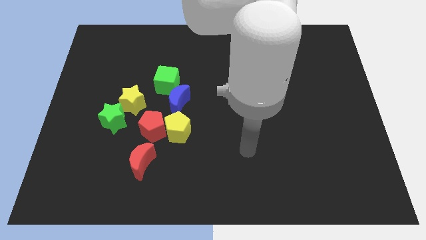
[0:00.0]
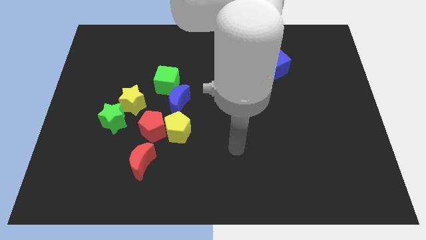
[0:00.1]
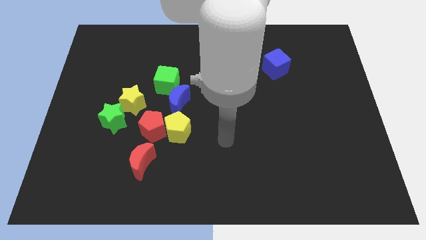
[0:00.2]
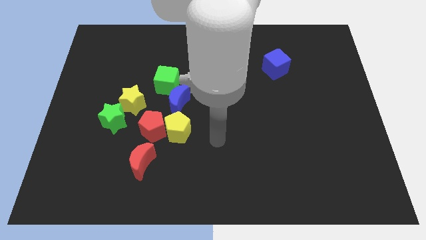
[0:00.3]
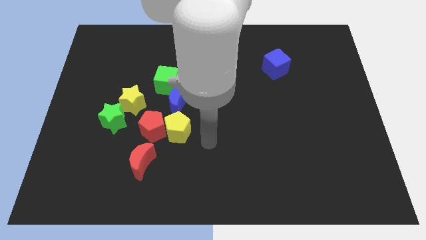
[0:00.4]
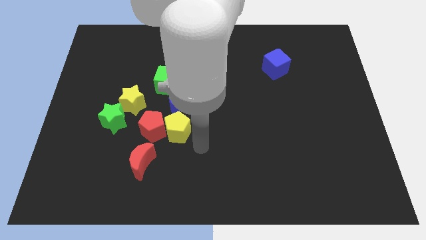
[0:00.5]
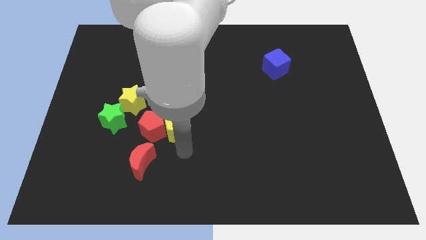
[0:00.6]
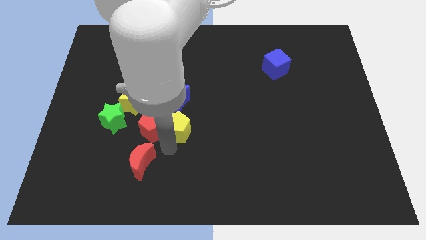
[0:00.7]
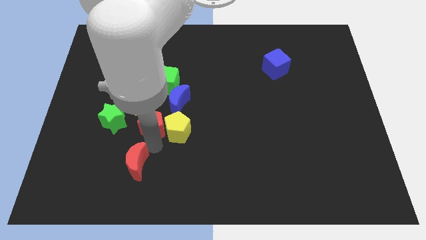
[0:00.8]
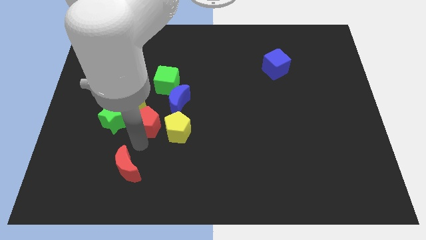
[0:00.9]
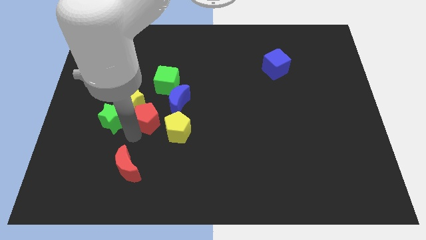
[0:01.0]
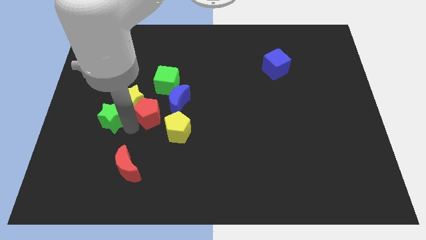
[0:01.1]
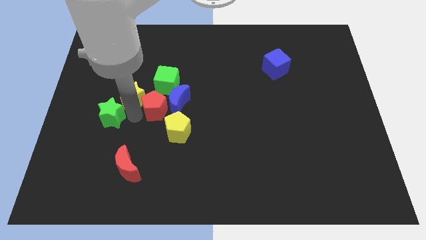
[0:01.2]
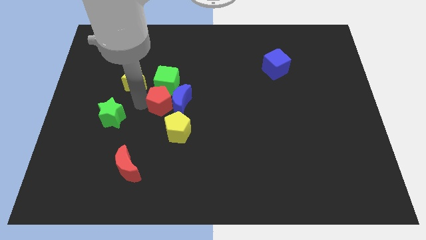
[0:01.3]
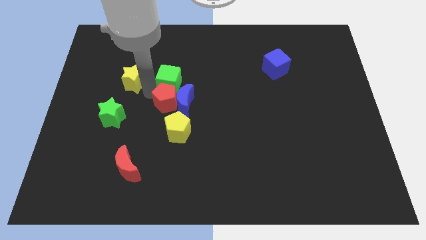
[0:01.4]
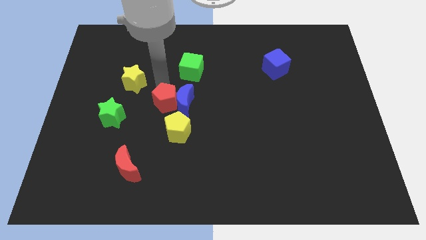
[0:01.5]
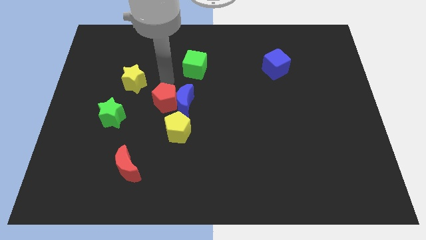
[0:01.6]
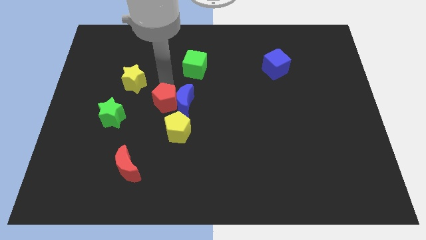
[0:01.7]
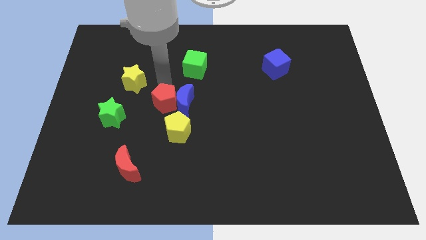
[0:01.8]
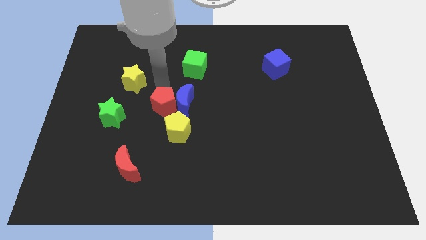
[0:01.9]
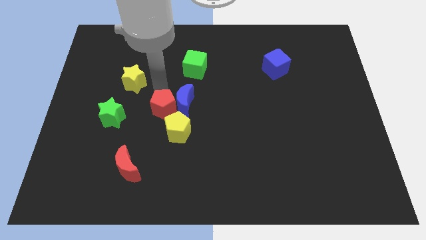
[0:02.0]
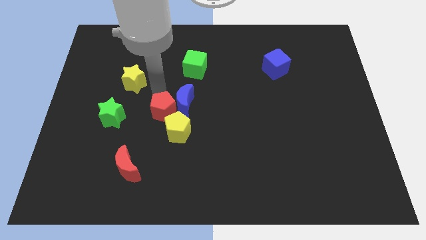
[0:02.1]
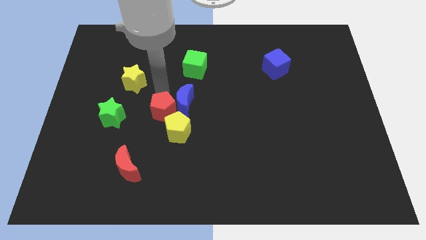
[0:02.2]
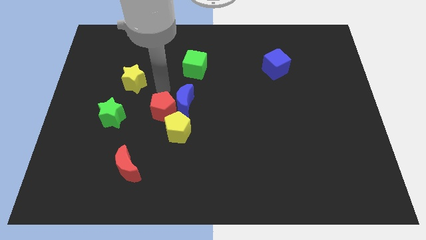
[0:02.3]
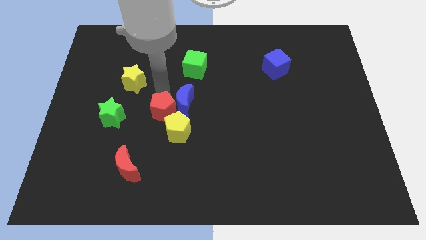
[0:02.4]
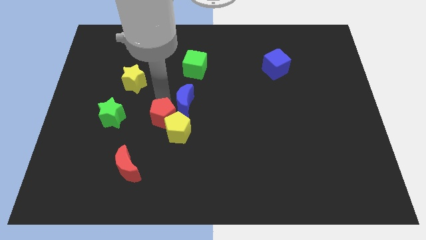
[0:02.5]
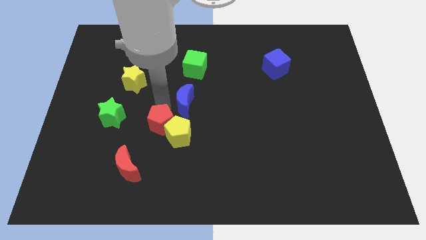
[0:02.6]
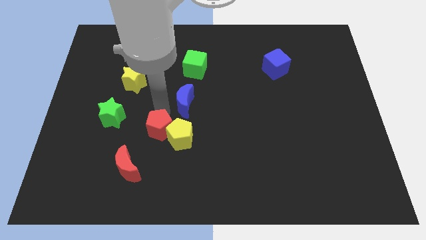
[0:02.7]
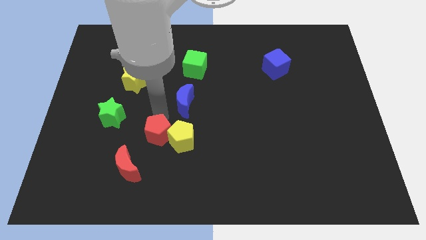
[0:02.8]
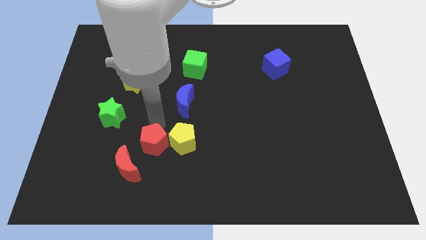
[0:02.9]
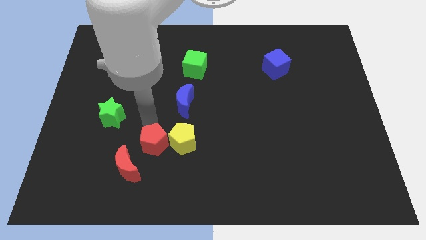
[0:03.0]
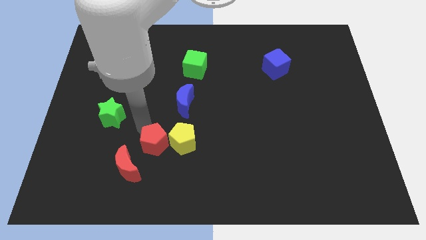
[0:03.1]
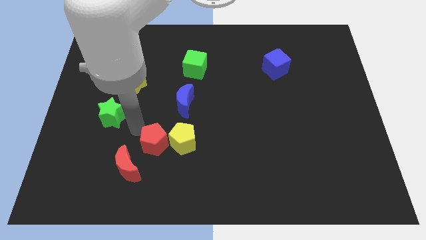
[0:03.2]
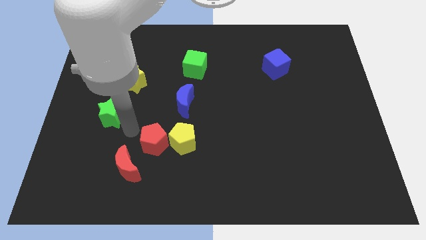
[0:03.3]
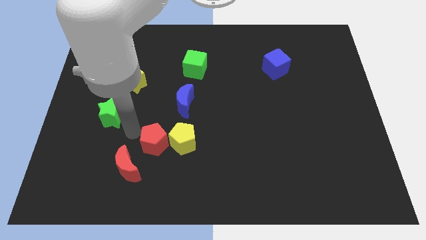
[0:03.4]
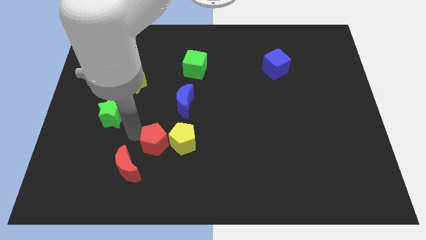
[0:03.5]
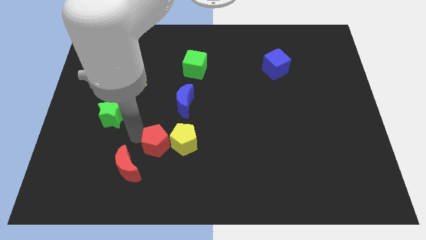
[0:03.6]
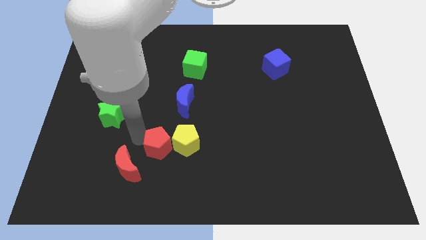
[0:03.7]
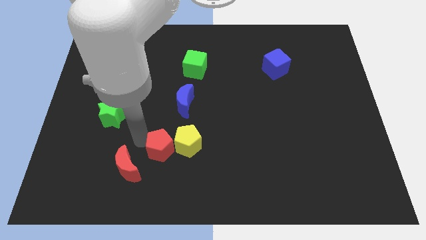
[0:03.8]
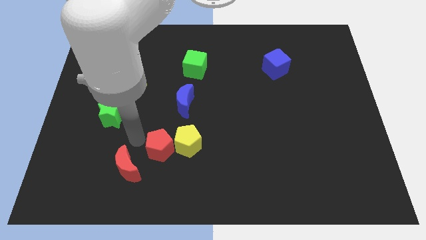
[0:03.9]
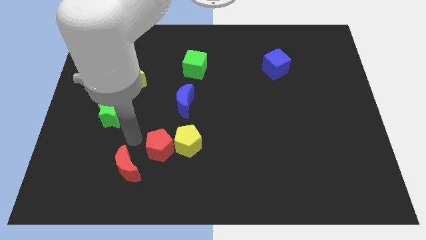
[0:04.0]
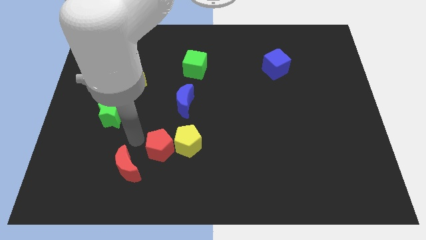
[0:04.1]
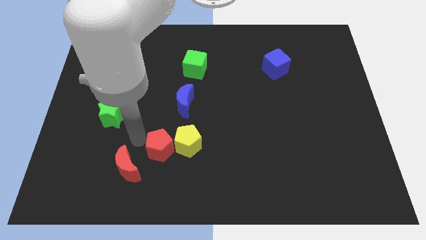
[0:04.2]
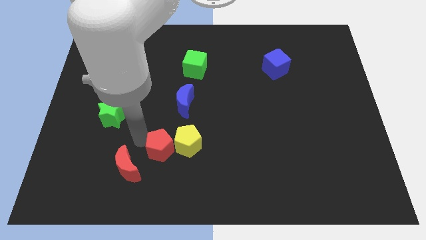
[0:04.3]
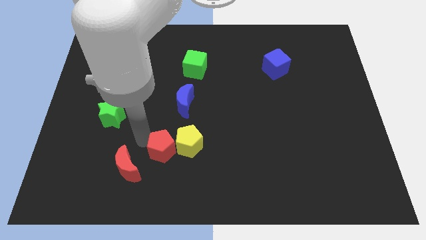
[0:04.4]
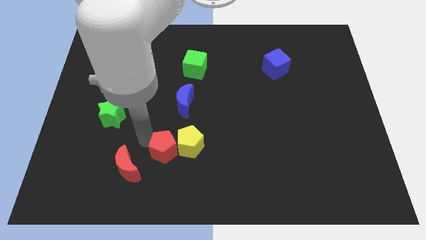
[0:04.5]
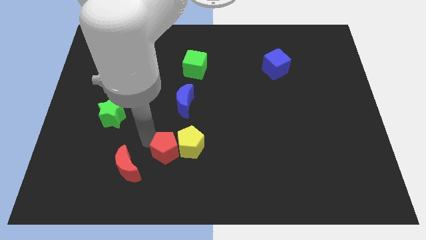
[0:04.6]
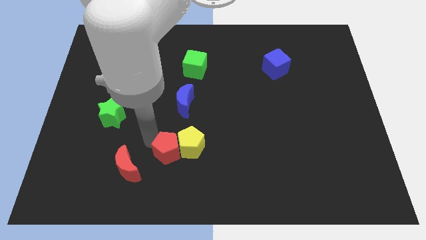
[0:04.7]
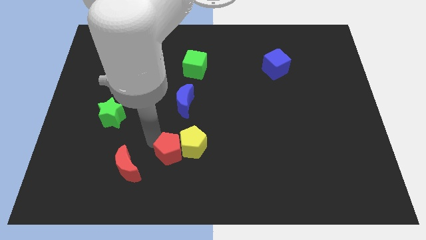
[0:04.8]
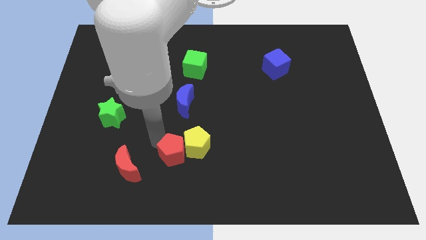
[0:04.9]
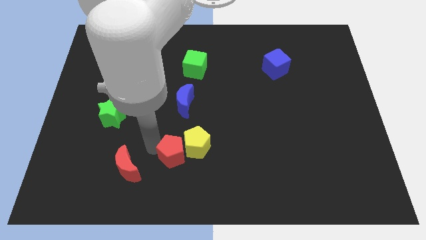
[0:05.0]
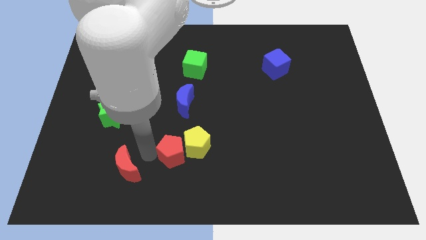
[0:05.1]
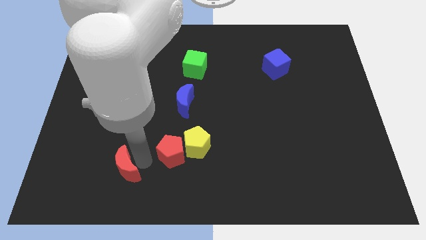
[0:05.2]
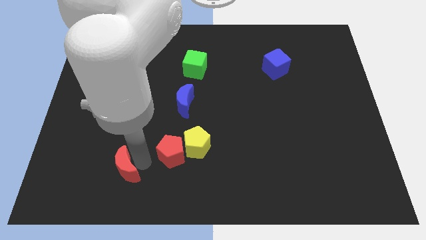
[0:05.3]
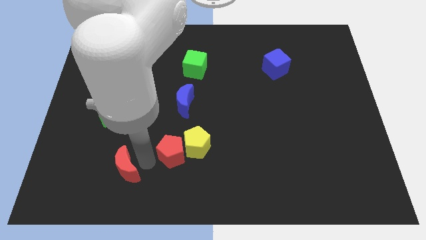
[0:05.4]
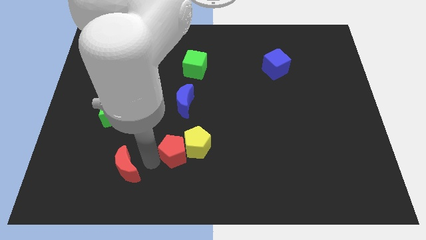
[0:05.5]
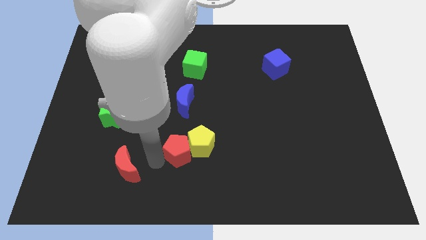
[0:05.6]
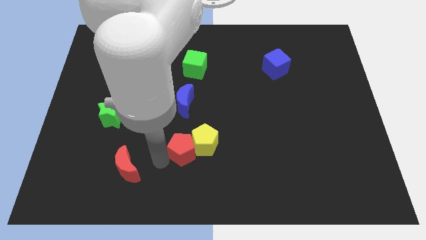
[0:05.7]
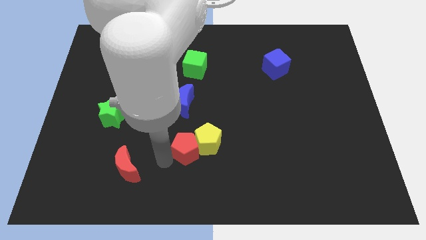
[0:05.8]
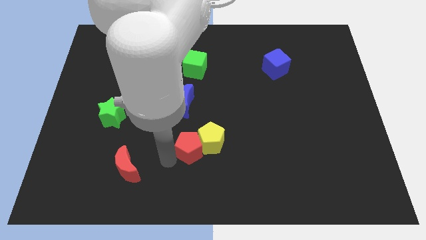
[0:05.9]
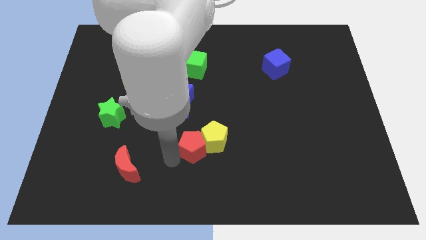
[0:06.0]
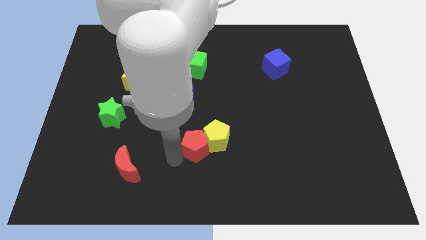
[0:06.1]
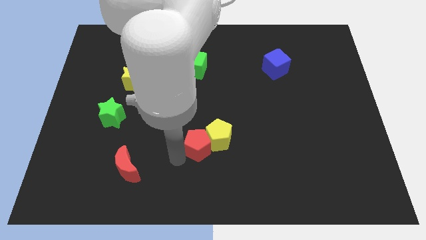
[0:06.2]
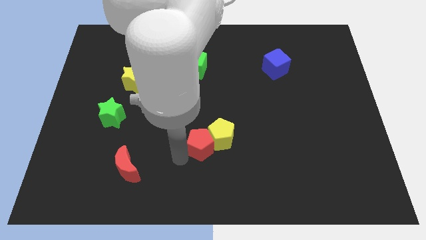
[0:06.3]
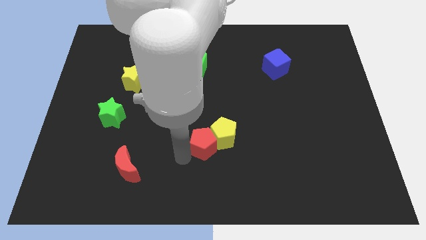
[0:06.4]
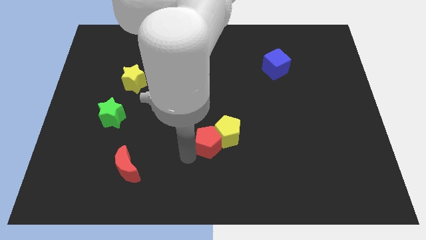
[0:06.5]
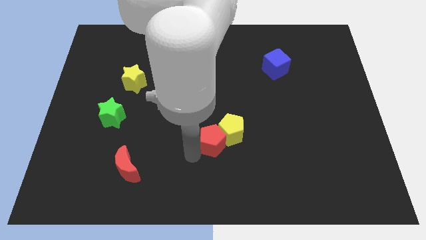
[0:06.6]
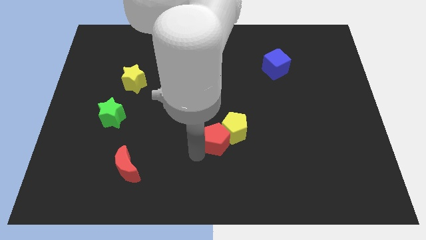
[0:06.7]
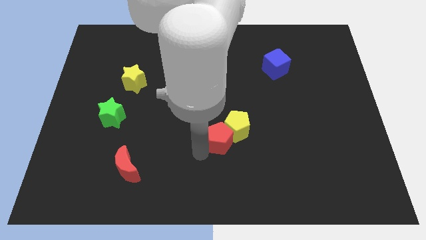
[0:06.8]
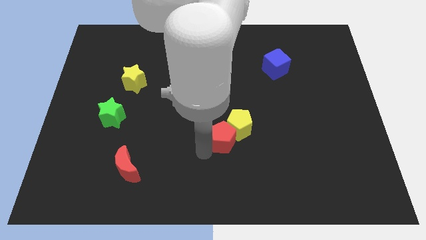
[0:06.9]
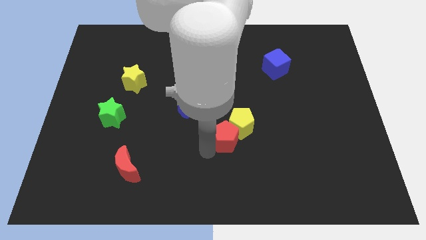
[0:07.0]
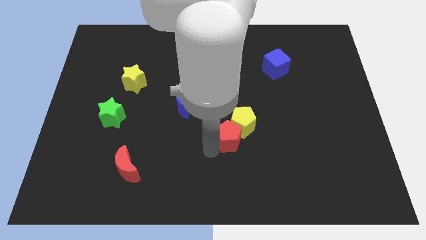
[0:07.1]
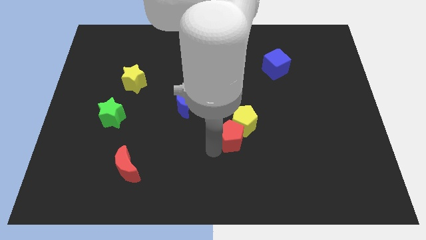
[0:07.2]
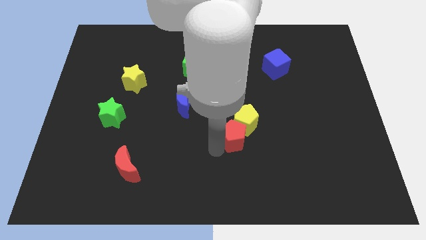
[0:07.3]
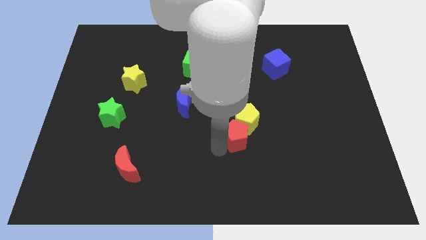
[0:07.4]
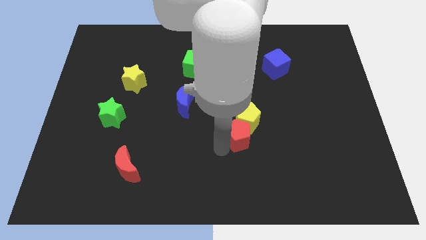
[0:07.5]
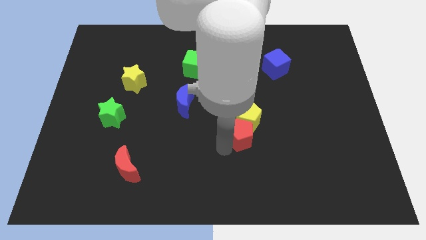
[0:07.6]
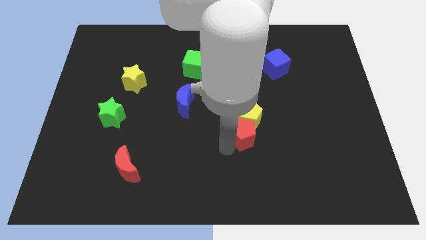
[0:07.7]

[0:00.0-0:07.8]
slide the red pentagon right
